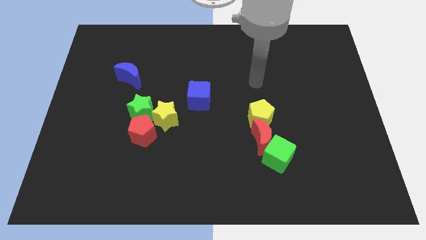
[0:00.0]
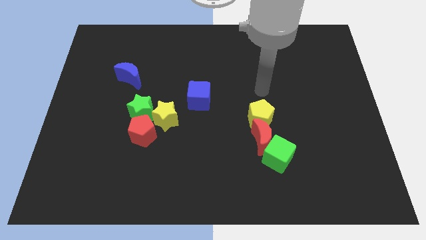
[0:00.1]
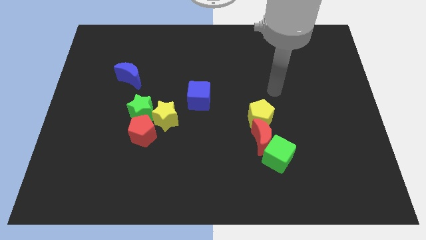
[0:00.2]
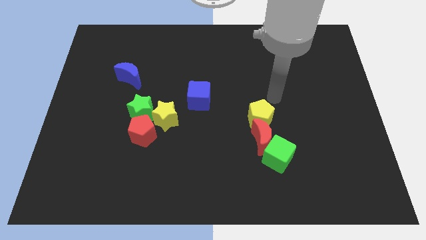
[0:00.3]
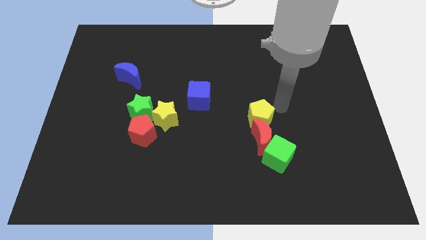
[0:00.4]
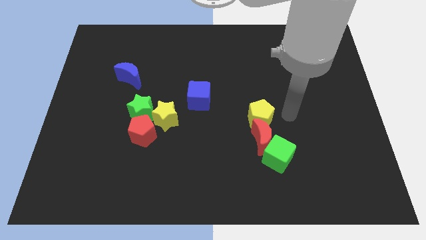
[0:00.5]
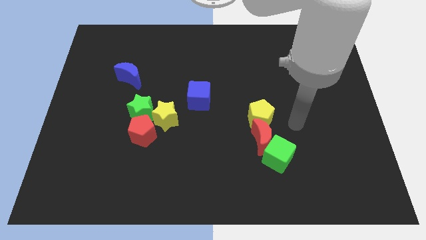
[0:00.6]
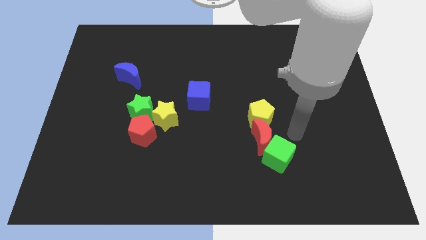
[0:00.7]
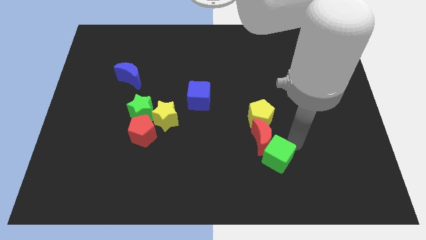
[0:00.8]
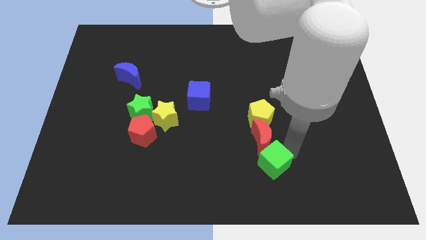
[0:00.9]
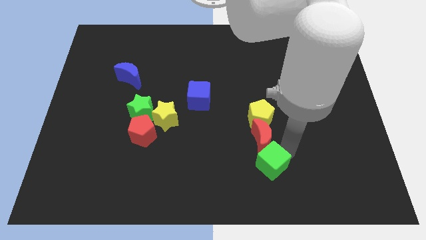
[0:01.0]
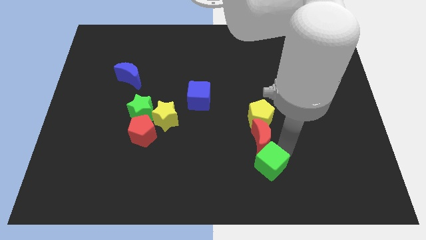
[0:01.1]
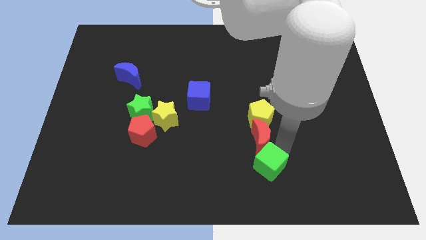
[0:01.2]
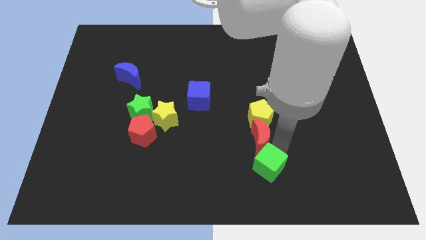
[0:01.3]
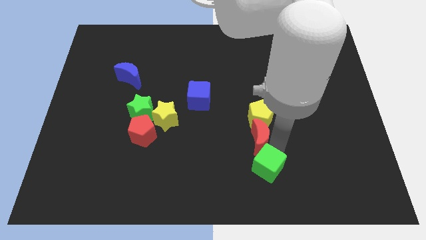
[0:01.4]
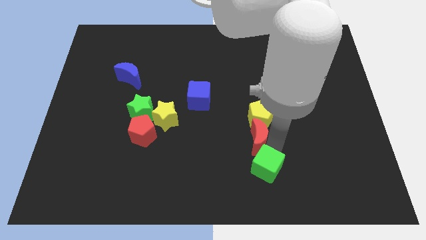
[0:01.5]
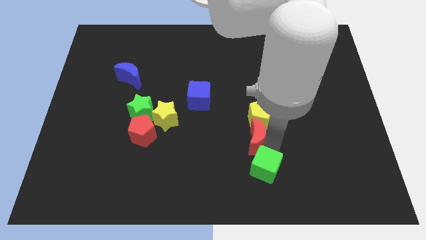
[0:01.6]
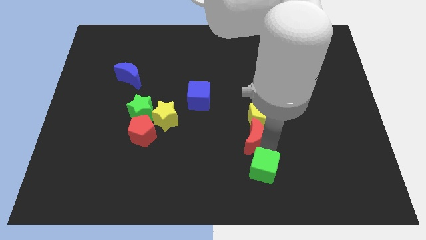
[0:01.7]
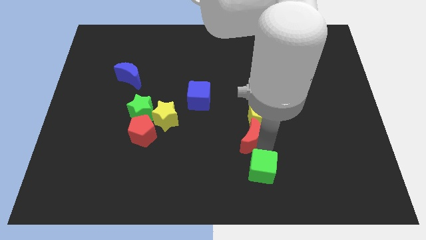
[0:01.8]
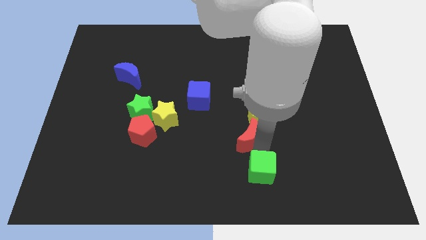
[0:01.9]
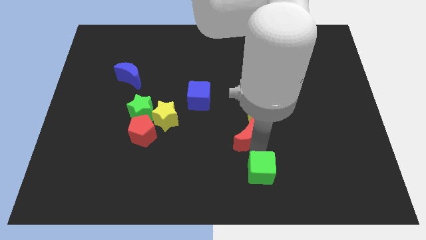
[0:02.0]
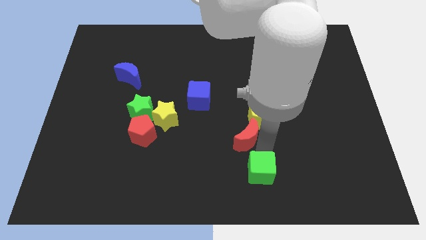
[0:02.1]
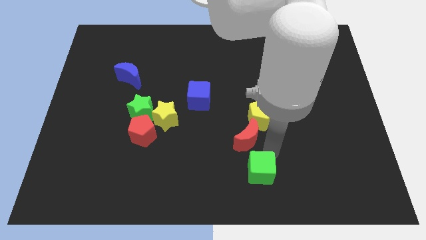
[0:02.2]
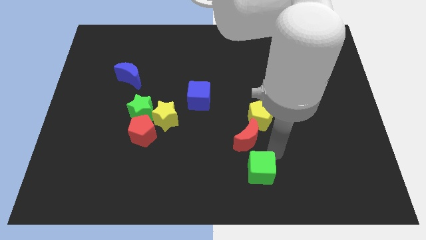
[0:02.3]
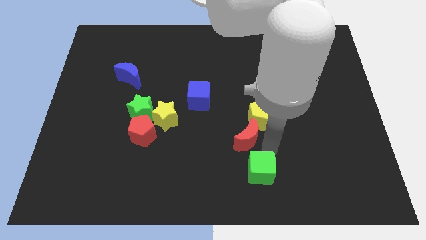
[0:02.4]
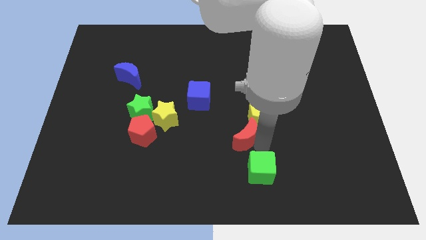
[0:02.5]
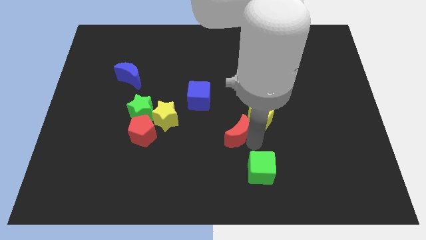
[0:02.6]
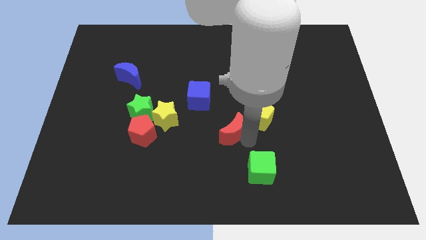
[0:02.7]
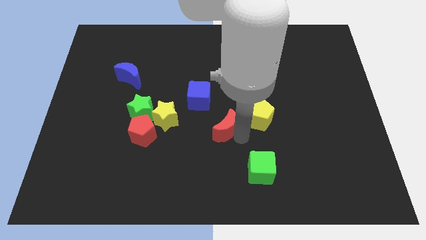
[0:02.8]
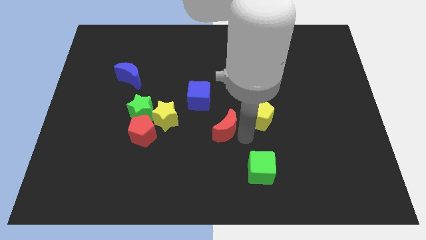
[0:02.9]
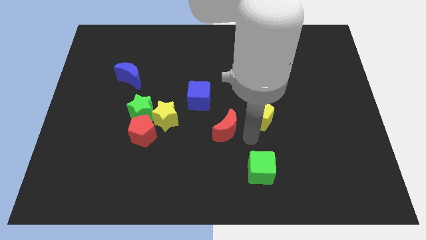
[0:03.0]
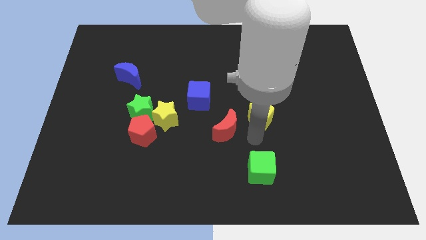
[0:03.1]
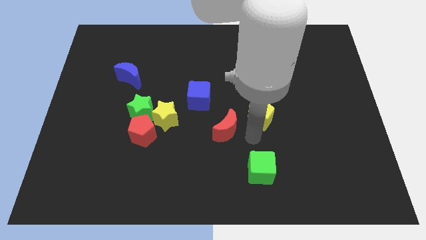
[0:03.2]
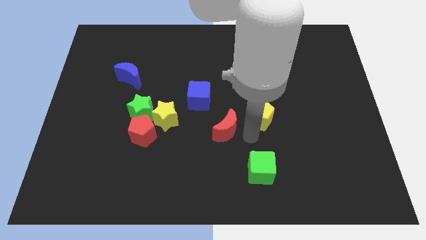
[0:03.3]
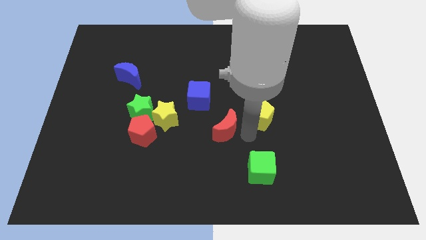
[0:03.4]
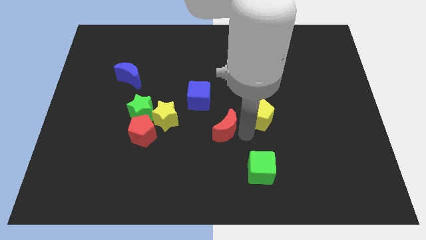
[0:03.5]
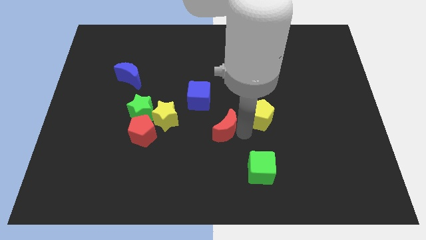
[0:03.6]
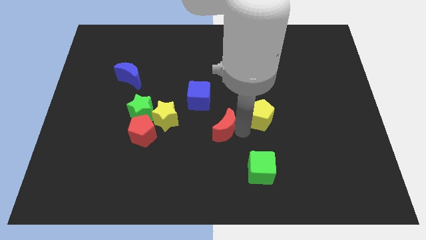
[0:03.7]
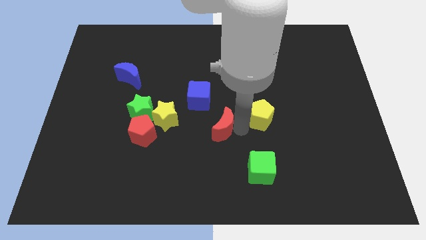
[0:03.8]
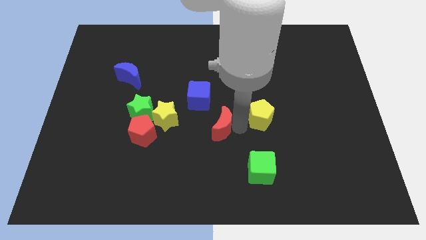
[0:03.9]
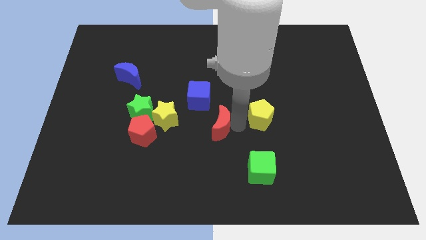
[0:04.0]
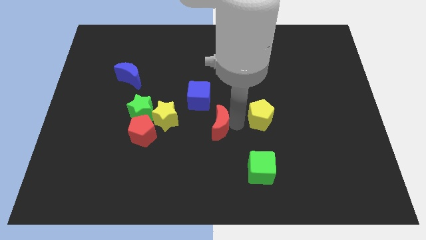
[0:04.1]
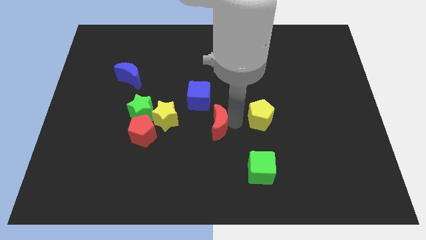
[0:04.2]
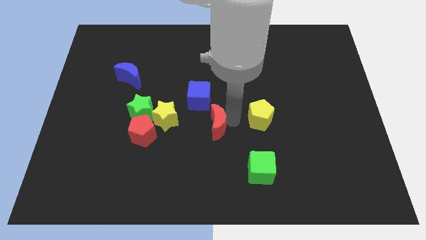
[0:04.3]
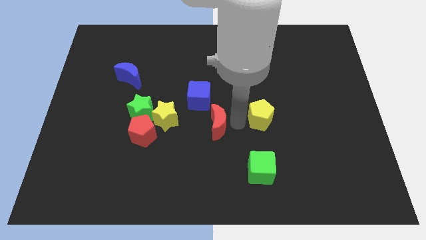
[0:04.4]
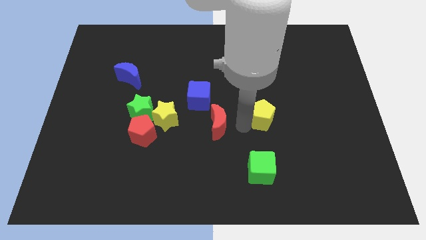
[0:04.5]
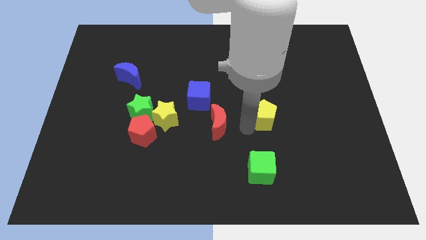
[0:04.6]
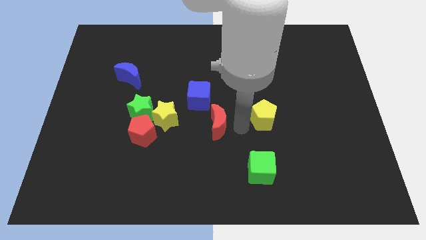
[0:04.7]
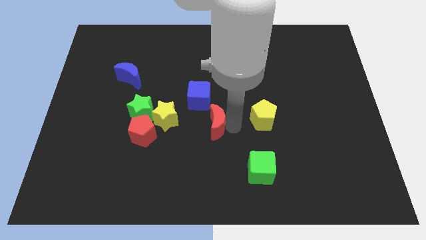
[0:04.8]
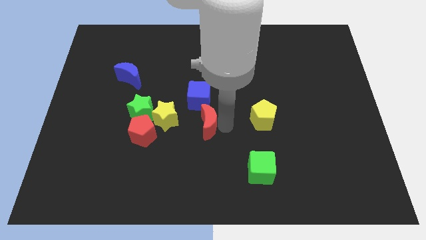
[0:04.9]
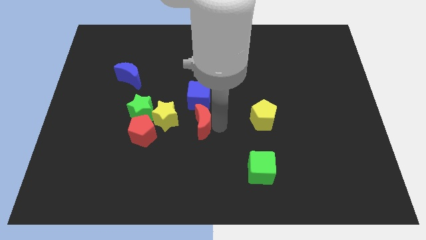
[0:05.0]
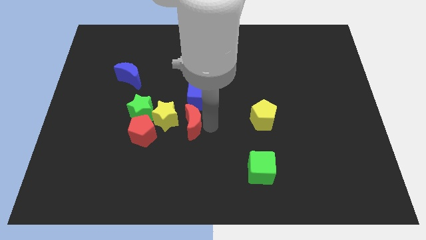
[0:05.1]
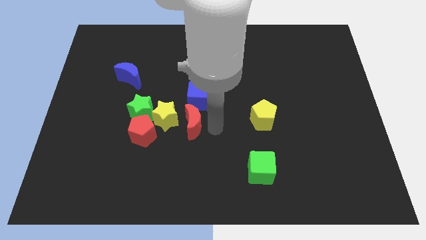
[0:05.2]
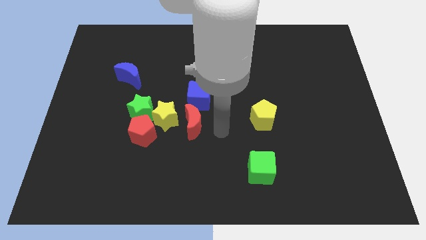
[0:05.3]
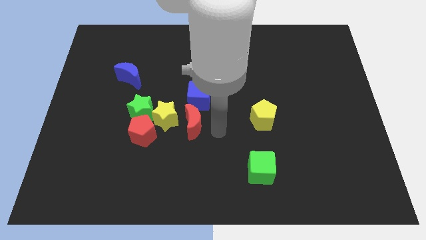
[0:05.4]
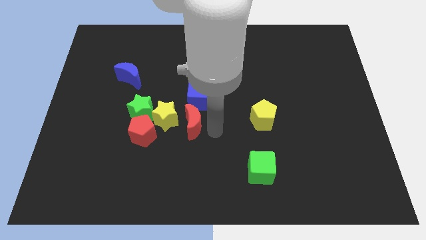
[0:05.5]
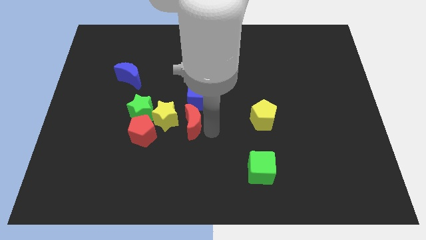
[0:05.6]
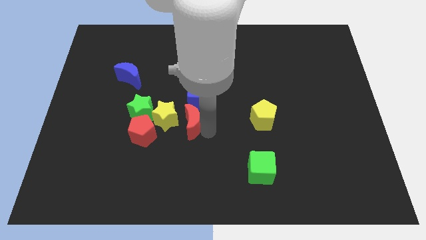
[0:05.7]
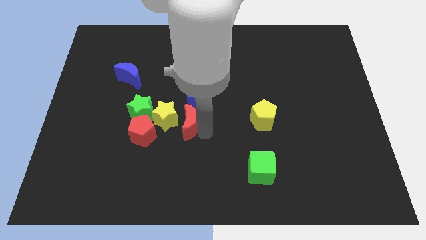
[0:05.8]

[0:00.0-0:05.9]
push the red moon close to the yellow star
